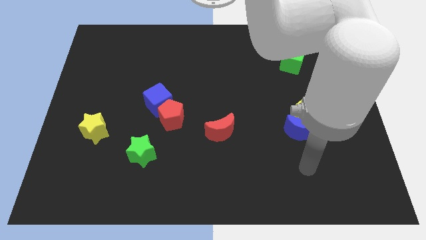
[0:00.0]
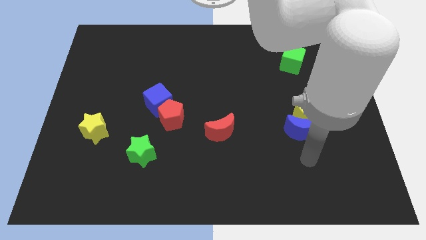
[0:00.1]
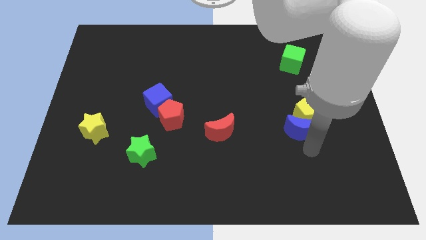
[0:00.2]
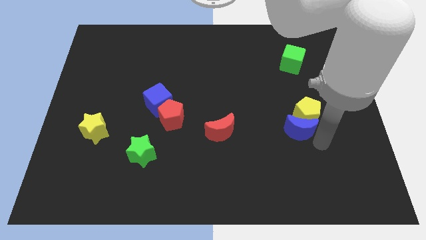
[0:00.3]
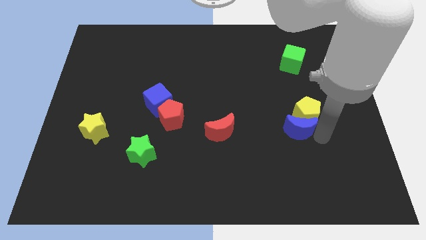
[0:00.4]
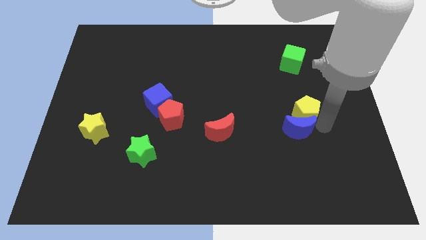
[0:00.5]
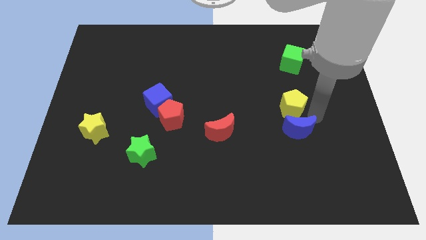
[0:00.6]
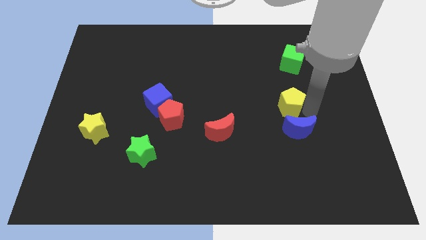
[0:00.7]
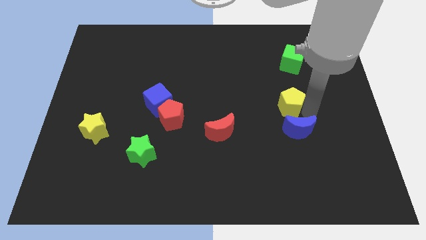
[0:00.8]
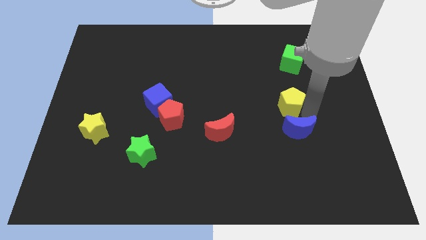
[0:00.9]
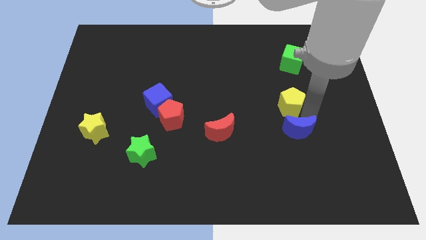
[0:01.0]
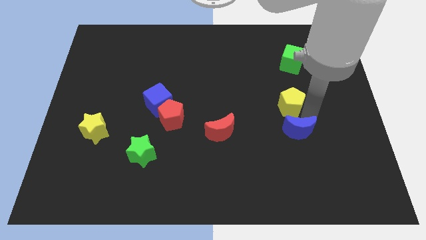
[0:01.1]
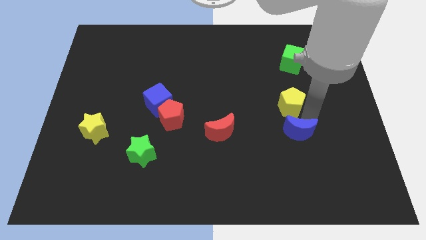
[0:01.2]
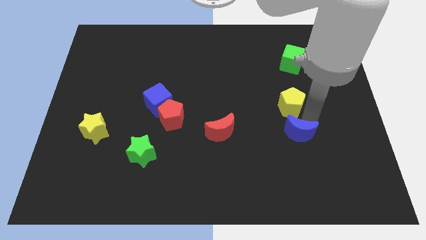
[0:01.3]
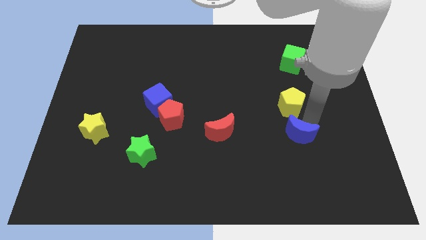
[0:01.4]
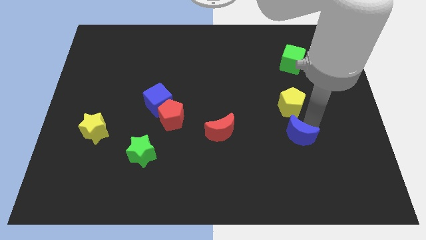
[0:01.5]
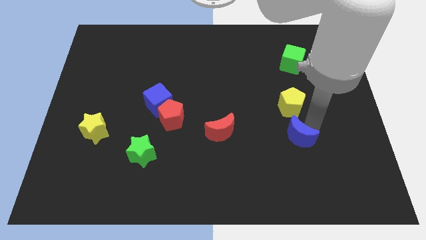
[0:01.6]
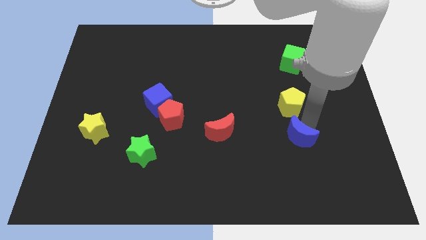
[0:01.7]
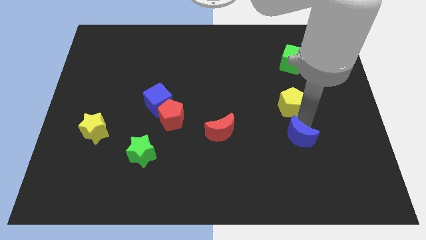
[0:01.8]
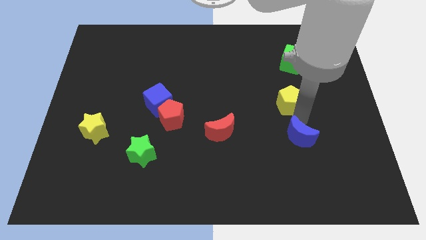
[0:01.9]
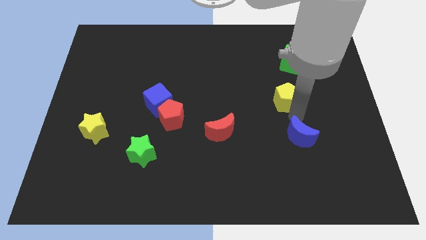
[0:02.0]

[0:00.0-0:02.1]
pull the blue moon apart from the yellow pentagon

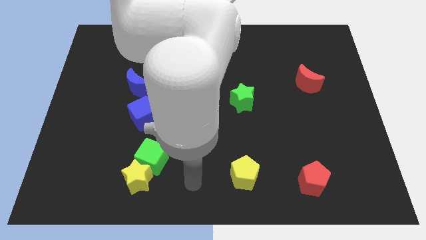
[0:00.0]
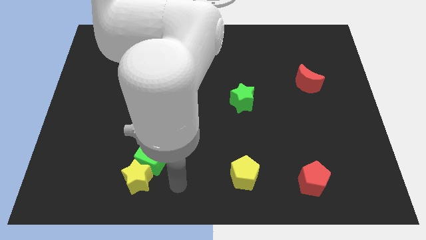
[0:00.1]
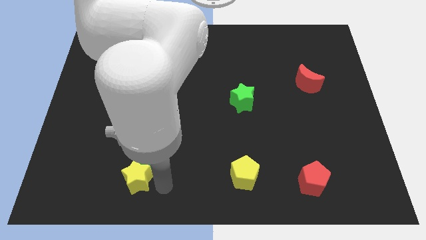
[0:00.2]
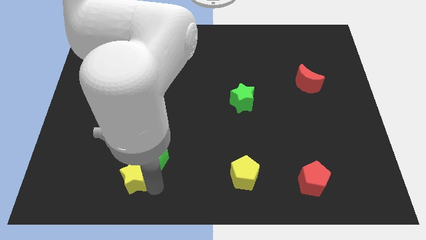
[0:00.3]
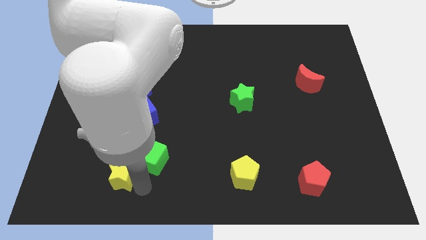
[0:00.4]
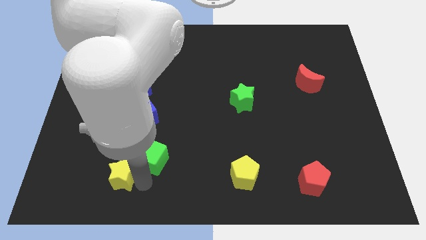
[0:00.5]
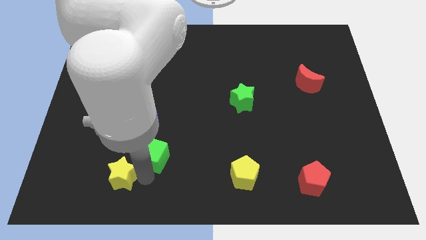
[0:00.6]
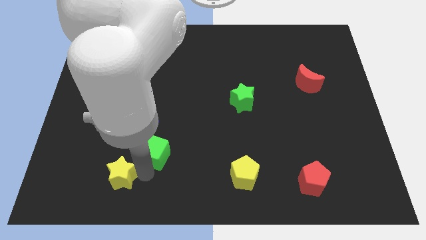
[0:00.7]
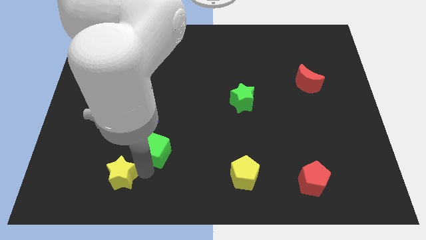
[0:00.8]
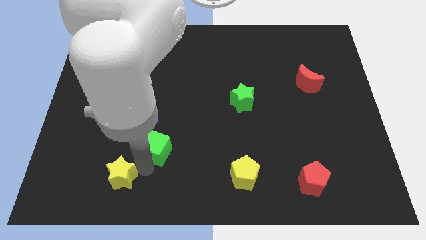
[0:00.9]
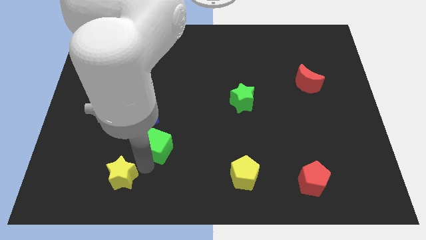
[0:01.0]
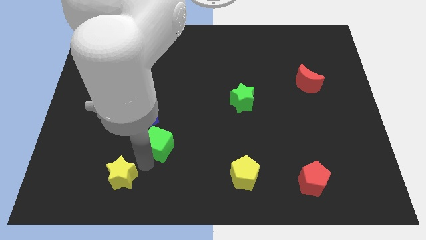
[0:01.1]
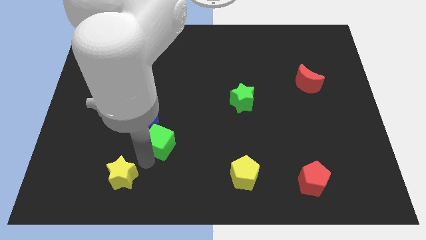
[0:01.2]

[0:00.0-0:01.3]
separate the green cube from the yellow star

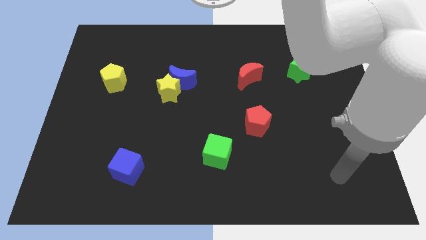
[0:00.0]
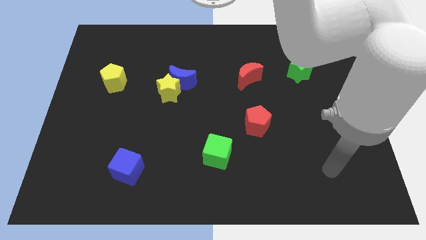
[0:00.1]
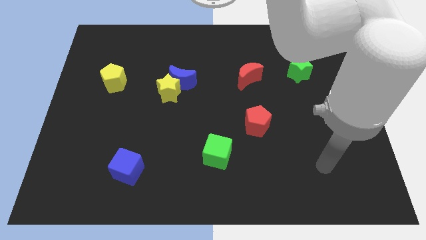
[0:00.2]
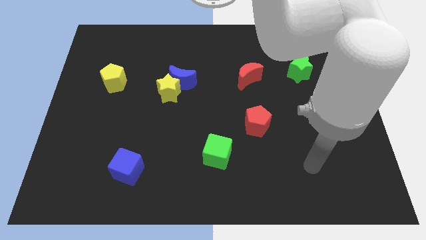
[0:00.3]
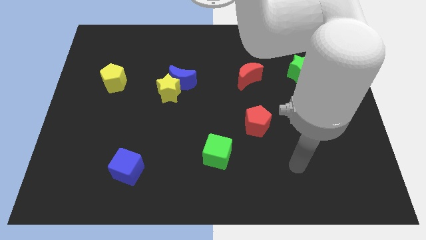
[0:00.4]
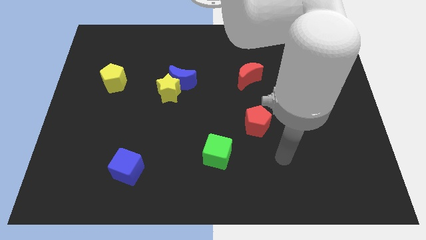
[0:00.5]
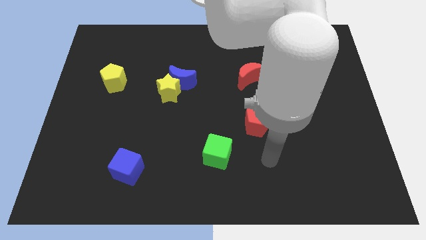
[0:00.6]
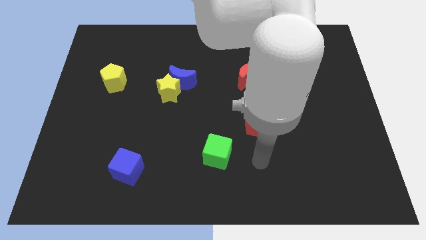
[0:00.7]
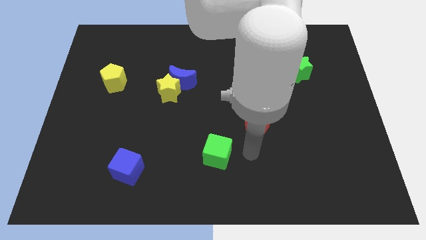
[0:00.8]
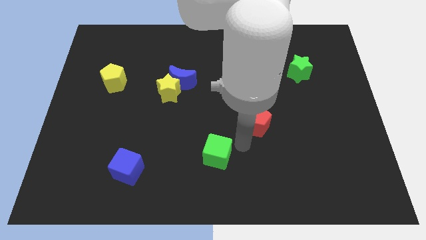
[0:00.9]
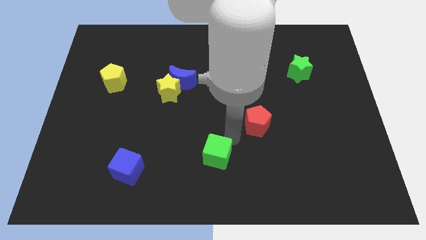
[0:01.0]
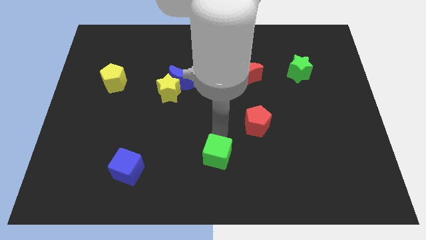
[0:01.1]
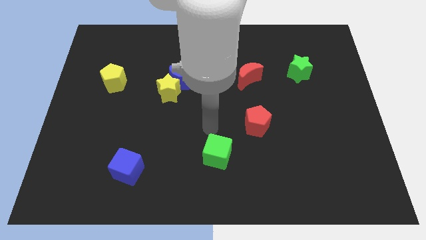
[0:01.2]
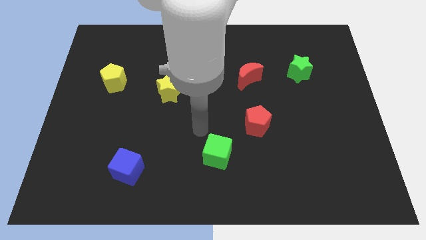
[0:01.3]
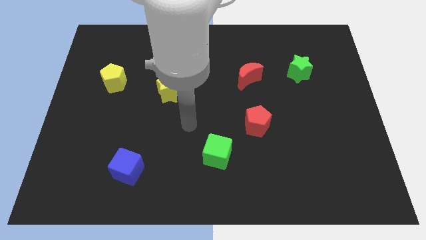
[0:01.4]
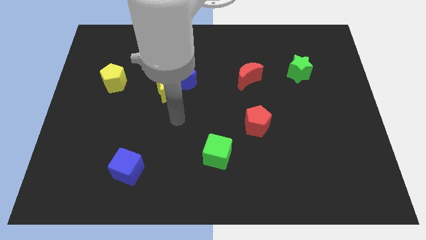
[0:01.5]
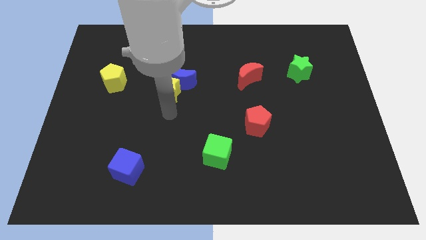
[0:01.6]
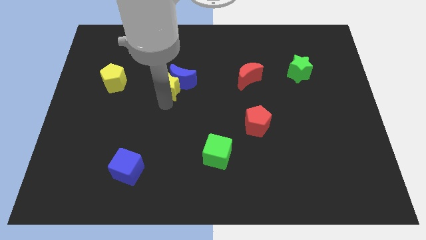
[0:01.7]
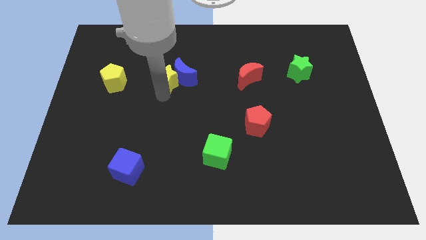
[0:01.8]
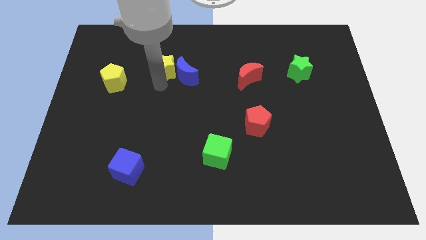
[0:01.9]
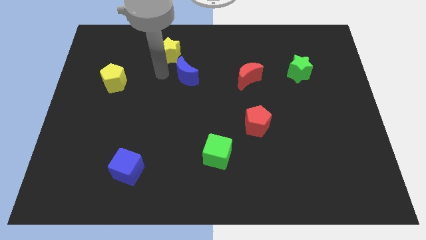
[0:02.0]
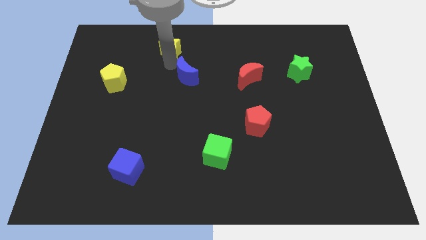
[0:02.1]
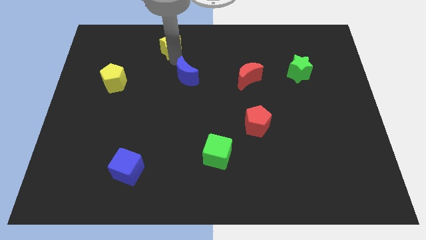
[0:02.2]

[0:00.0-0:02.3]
pull the blue moon apart from the yellow star

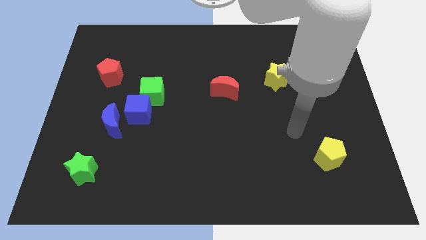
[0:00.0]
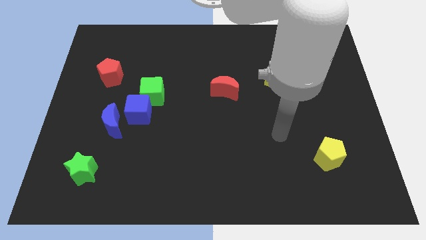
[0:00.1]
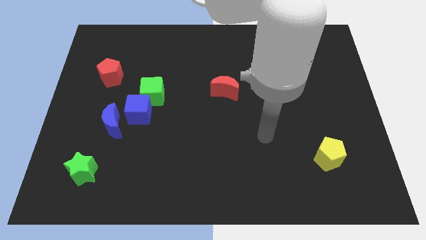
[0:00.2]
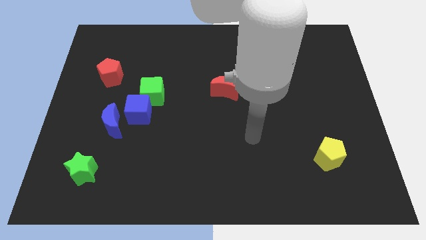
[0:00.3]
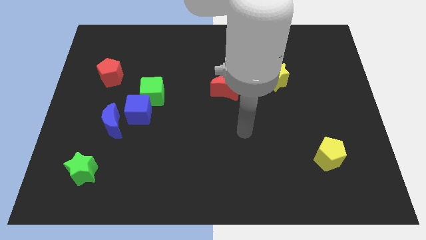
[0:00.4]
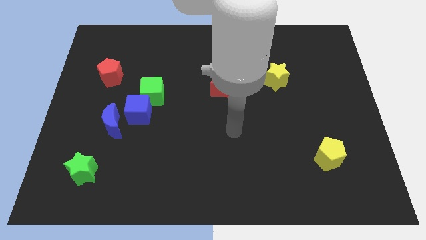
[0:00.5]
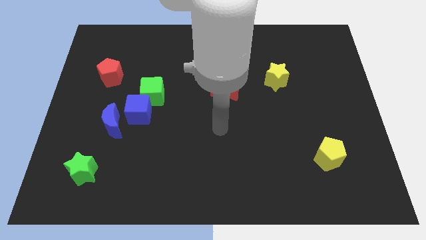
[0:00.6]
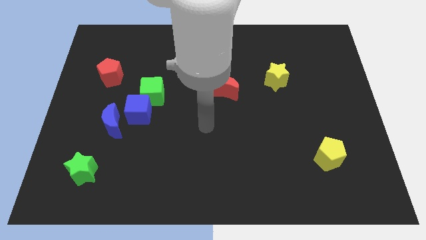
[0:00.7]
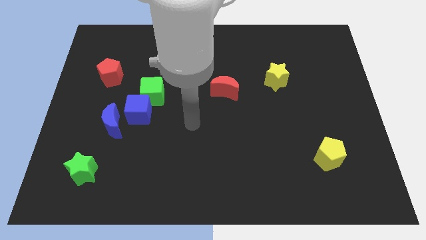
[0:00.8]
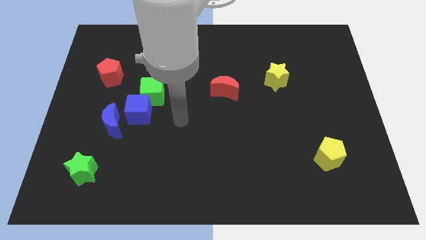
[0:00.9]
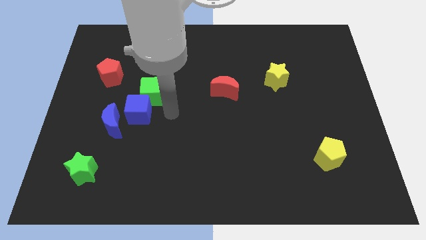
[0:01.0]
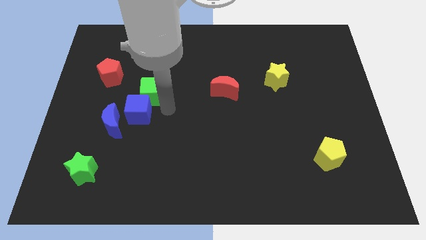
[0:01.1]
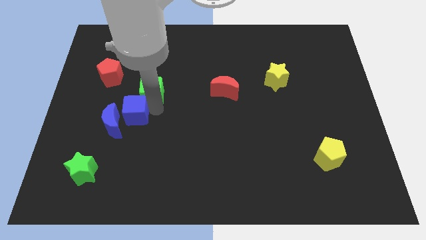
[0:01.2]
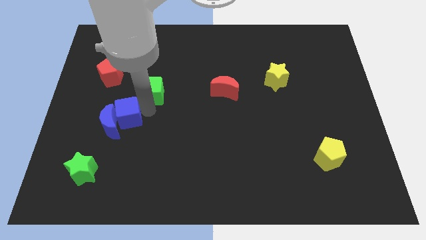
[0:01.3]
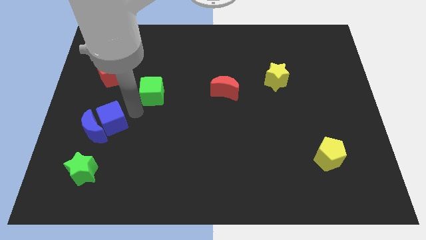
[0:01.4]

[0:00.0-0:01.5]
move the green cube away from the blue cube

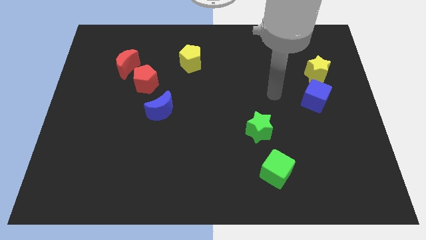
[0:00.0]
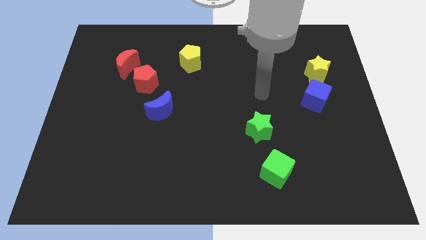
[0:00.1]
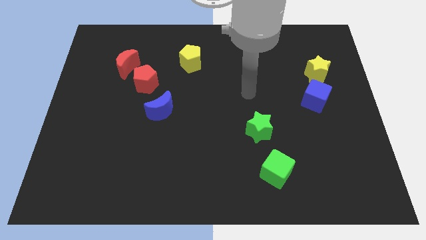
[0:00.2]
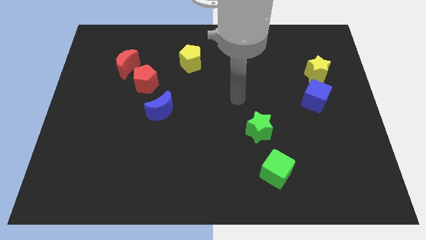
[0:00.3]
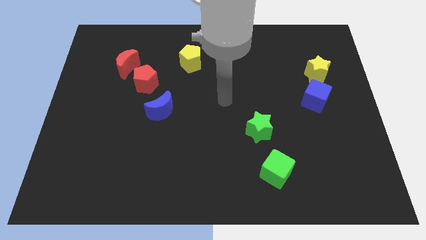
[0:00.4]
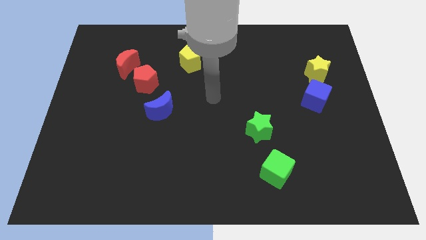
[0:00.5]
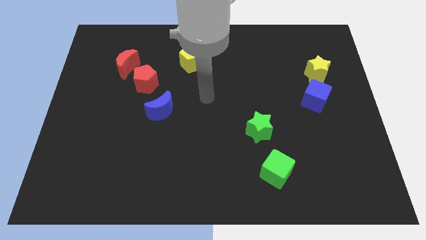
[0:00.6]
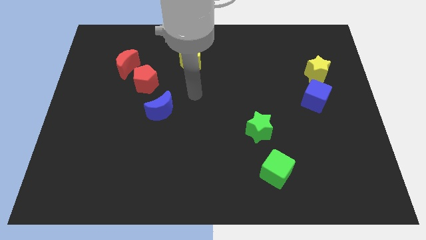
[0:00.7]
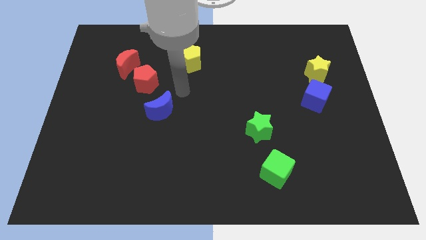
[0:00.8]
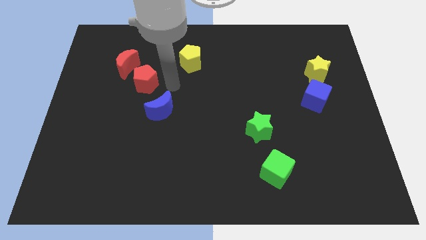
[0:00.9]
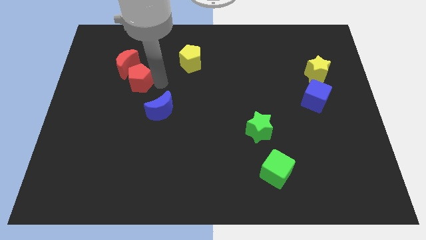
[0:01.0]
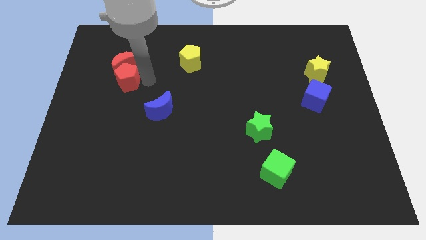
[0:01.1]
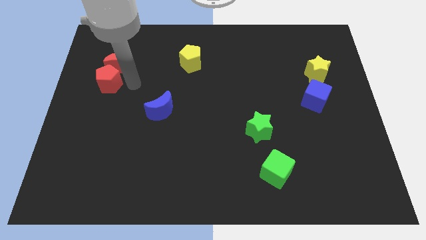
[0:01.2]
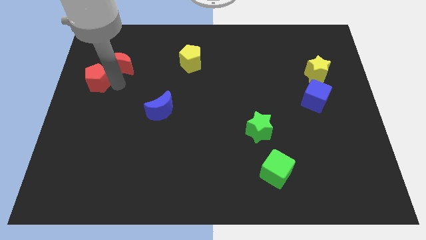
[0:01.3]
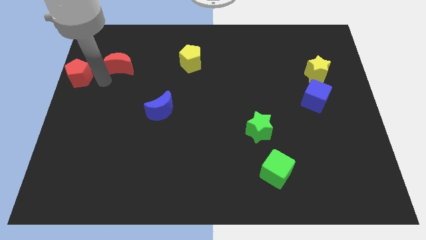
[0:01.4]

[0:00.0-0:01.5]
move the red moon away from the red pentagon

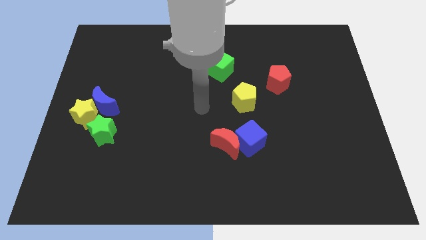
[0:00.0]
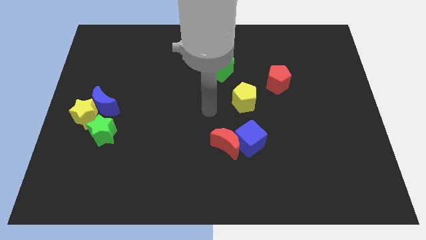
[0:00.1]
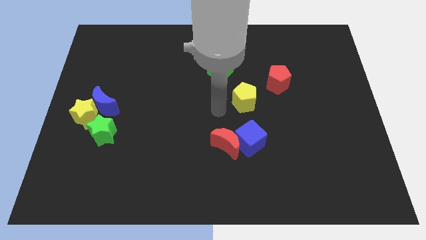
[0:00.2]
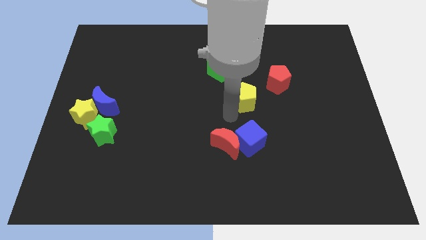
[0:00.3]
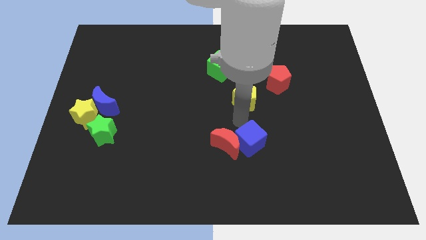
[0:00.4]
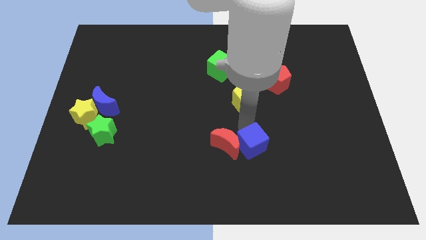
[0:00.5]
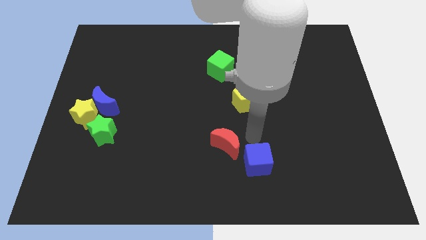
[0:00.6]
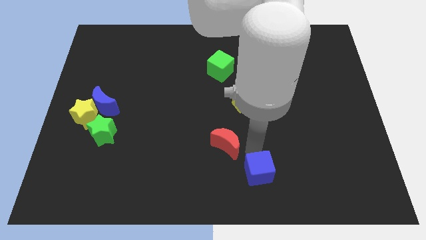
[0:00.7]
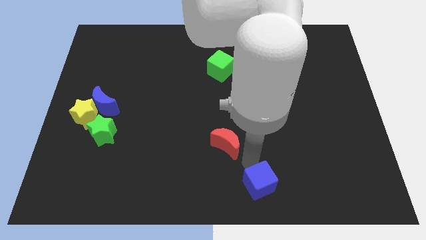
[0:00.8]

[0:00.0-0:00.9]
move the red moon away from the blue cube
